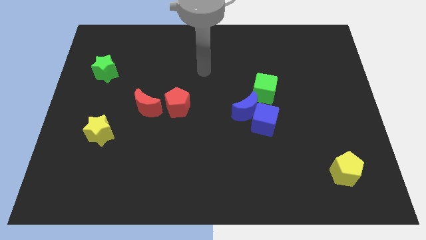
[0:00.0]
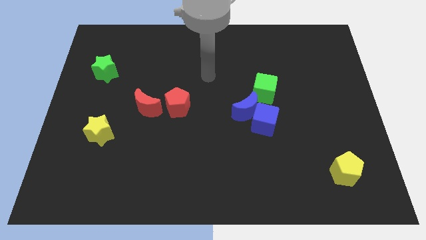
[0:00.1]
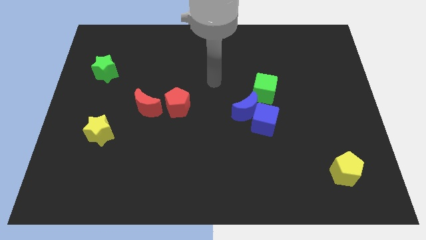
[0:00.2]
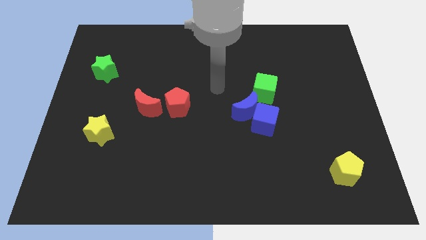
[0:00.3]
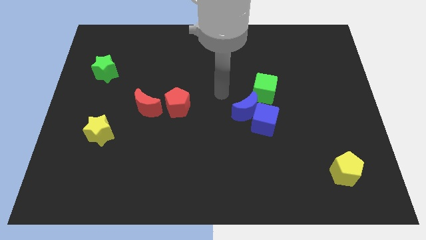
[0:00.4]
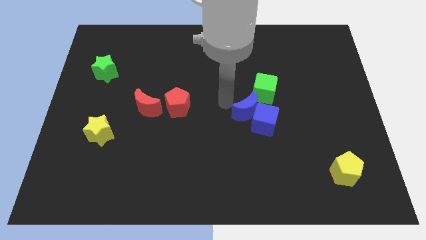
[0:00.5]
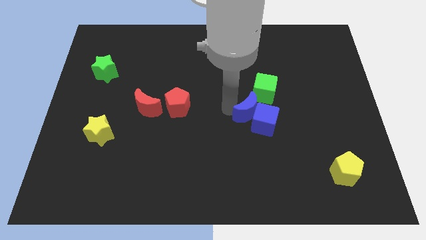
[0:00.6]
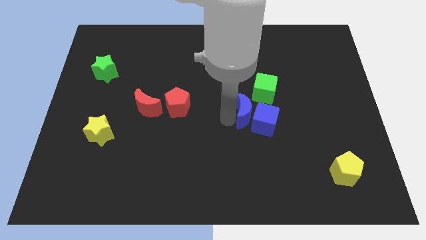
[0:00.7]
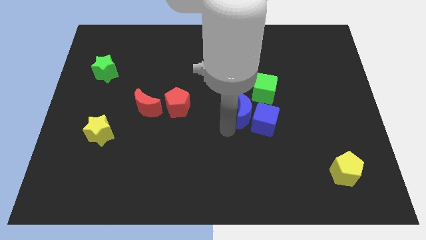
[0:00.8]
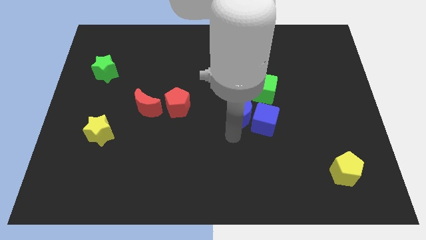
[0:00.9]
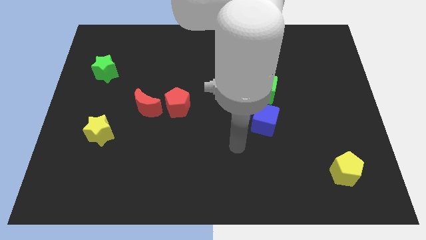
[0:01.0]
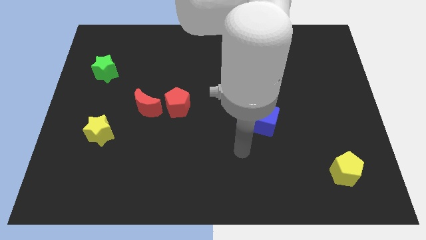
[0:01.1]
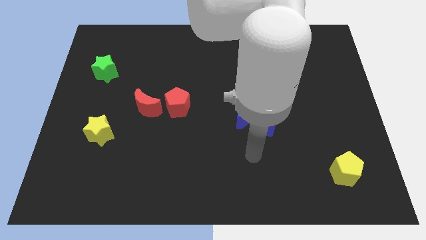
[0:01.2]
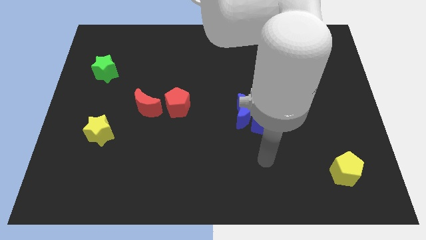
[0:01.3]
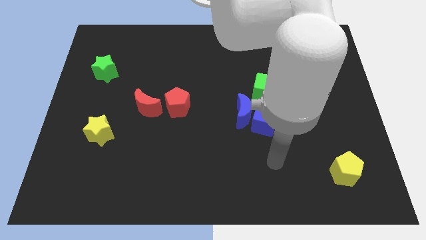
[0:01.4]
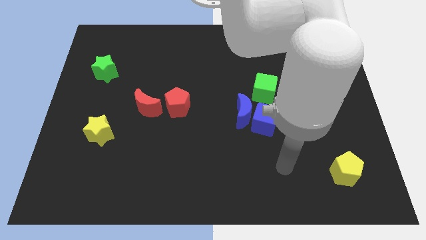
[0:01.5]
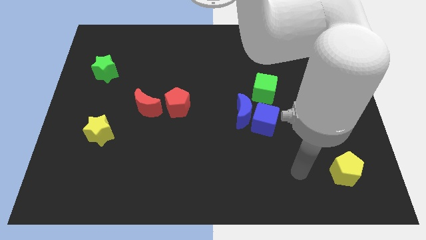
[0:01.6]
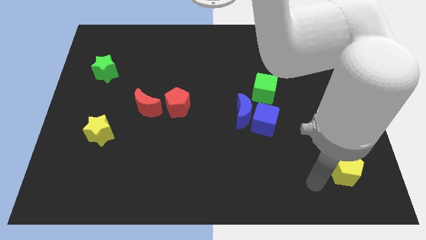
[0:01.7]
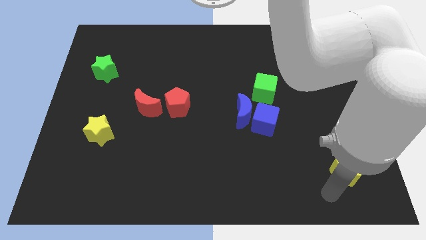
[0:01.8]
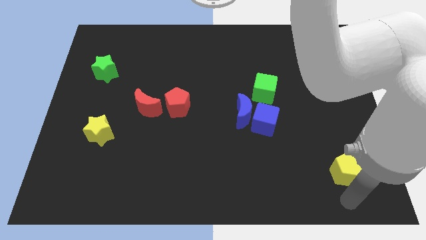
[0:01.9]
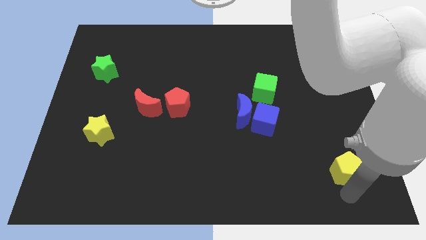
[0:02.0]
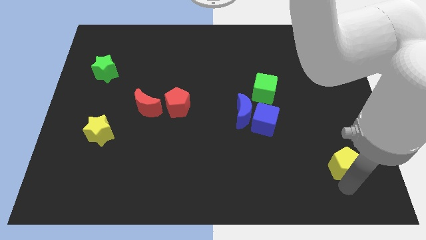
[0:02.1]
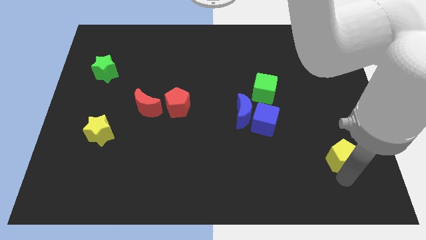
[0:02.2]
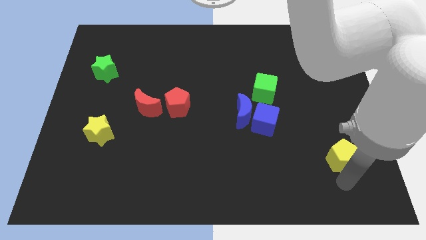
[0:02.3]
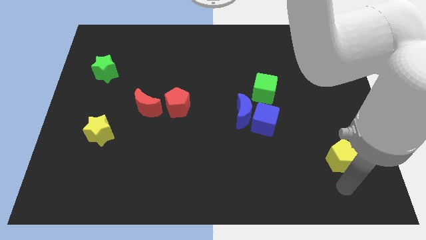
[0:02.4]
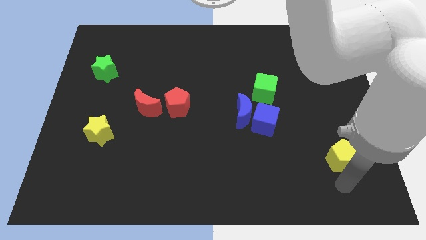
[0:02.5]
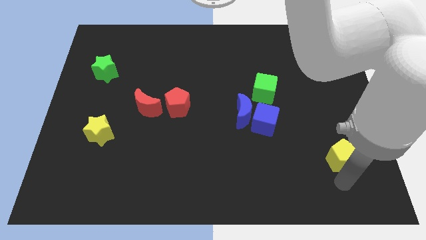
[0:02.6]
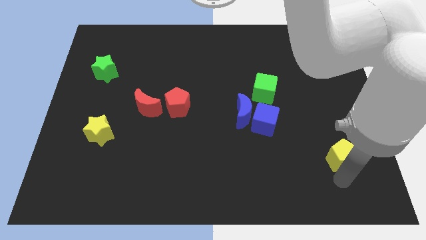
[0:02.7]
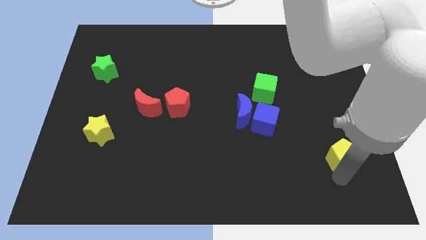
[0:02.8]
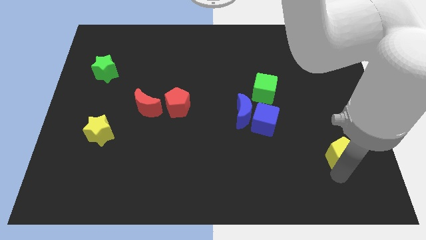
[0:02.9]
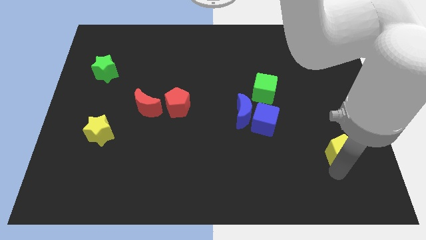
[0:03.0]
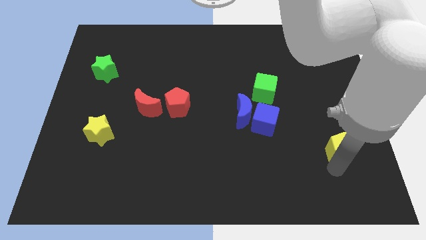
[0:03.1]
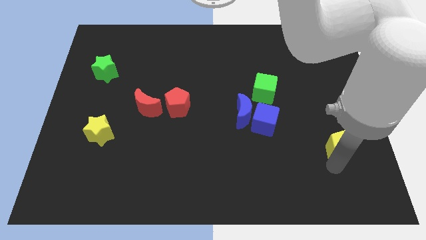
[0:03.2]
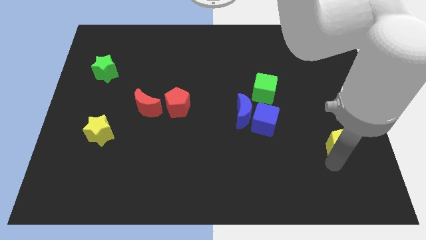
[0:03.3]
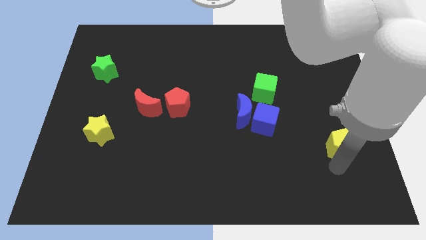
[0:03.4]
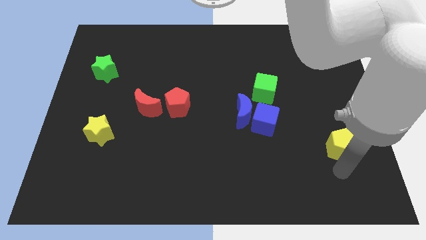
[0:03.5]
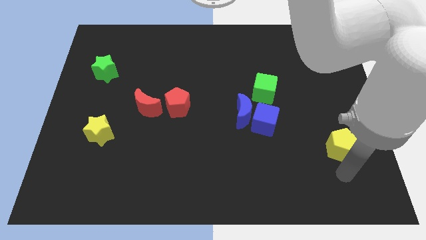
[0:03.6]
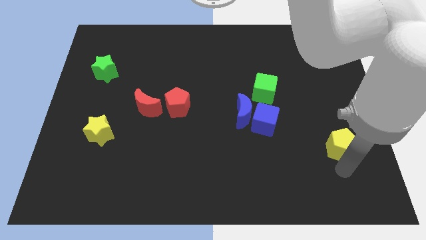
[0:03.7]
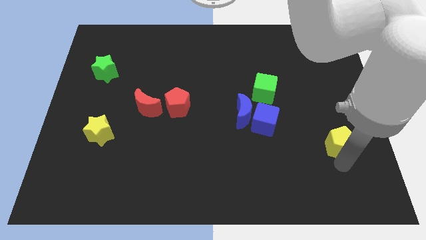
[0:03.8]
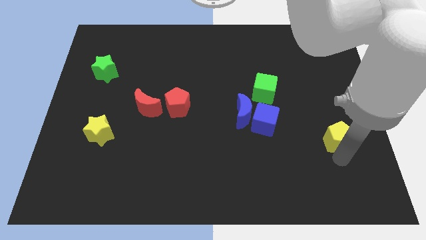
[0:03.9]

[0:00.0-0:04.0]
push the yellow pentagon somewhat up

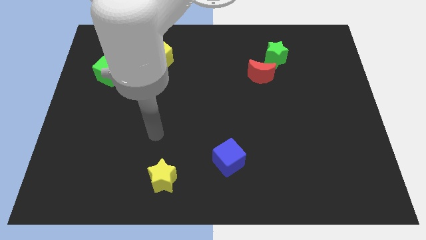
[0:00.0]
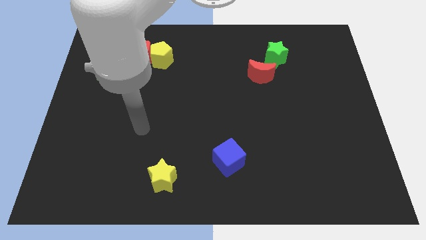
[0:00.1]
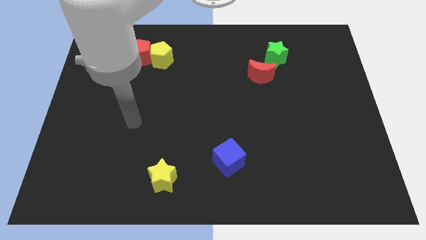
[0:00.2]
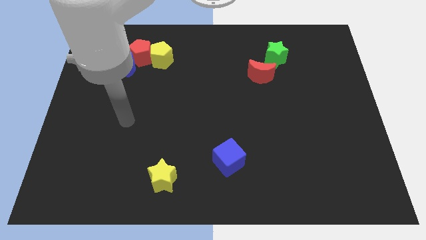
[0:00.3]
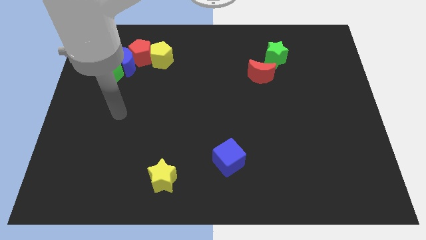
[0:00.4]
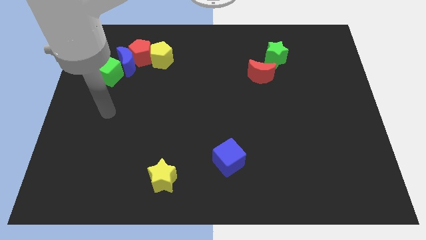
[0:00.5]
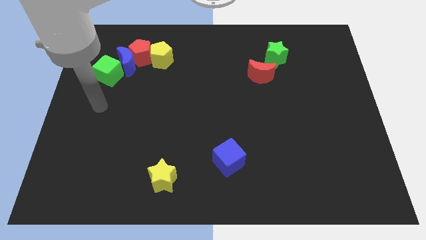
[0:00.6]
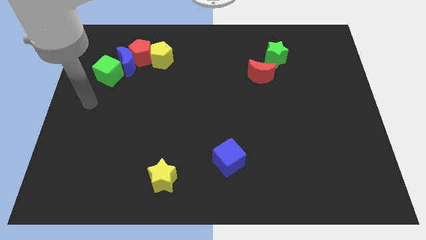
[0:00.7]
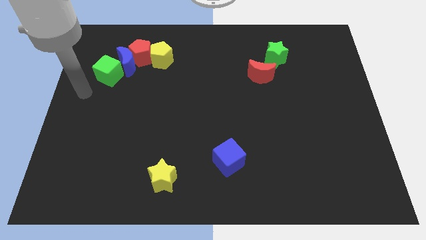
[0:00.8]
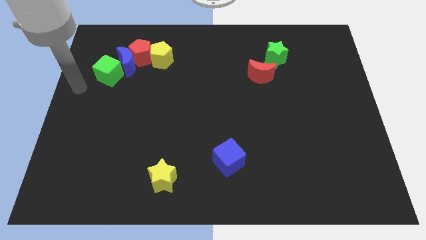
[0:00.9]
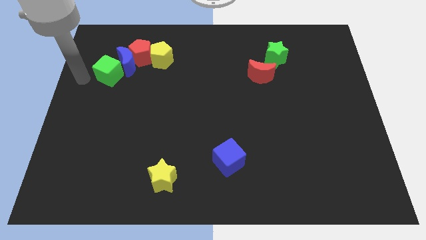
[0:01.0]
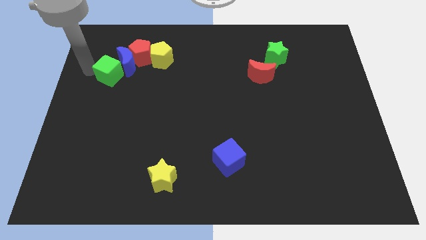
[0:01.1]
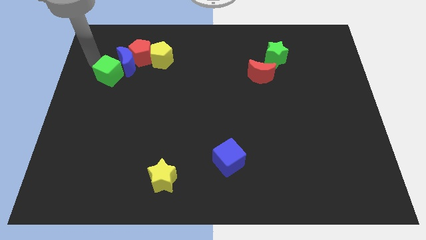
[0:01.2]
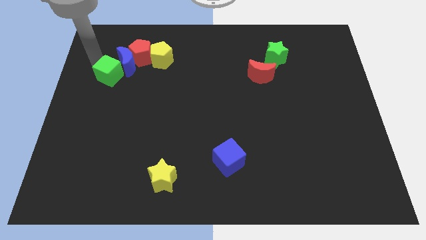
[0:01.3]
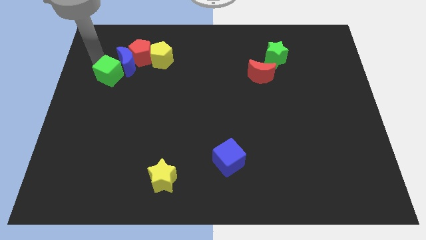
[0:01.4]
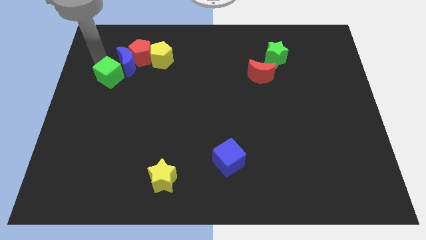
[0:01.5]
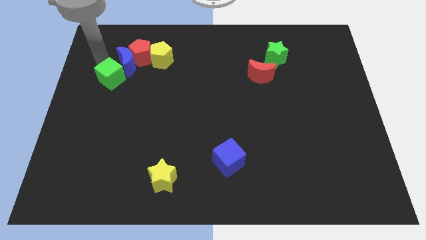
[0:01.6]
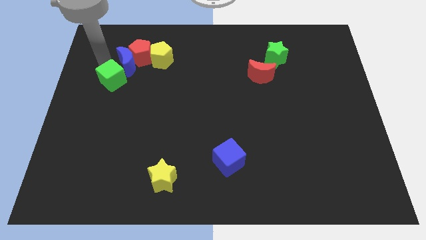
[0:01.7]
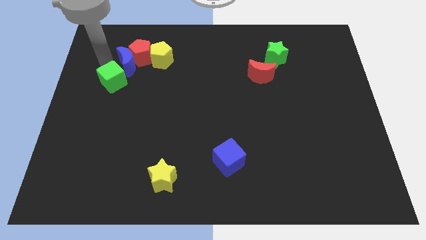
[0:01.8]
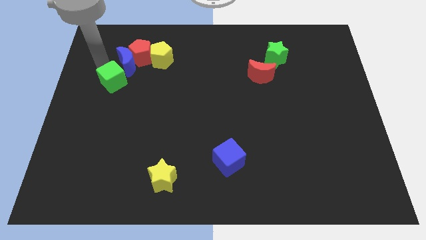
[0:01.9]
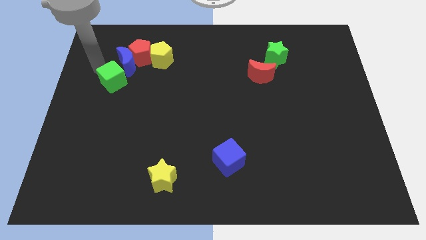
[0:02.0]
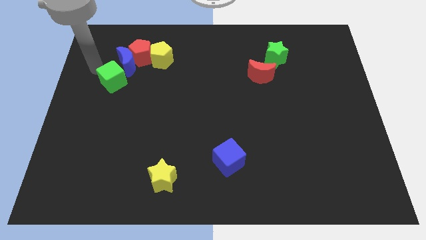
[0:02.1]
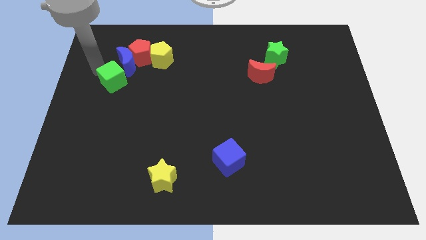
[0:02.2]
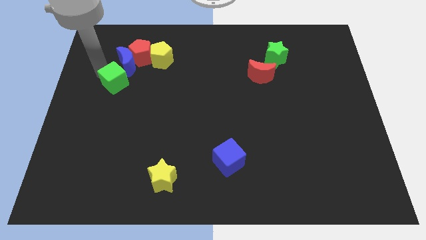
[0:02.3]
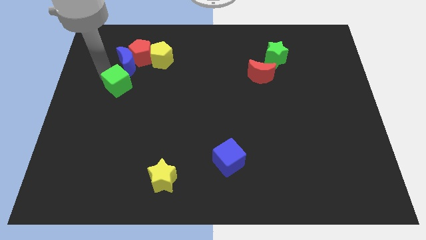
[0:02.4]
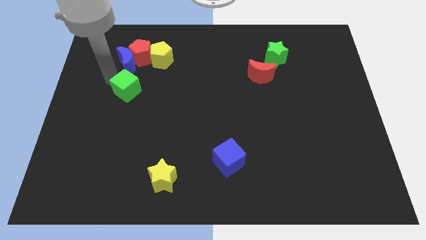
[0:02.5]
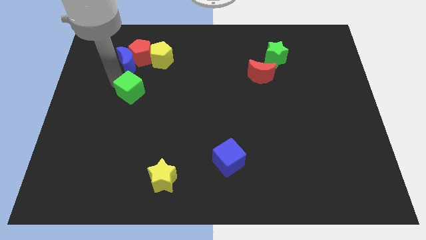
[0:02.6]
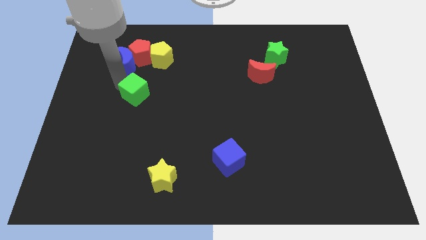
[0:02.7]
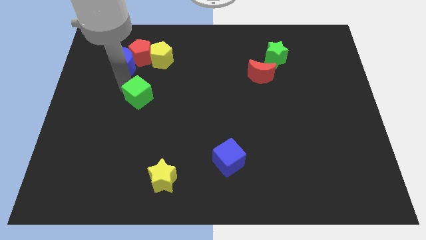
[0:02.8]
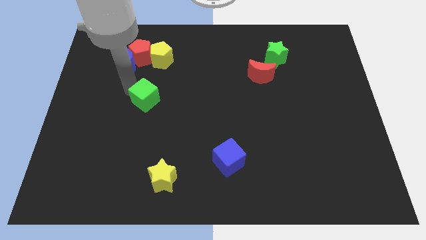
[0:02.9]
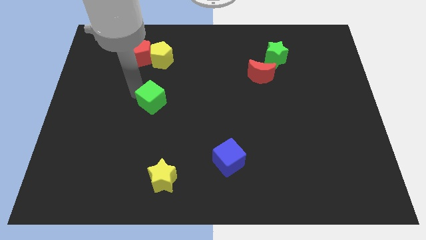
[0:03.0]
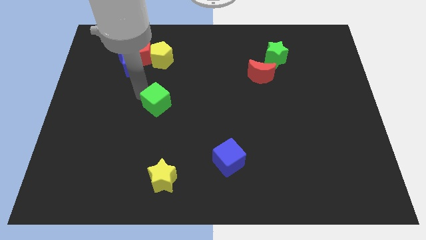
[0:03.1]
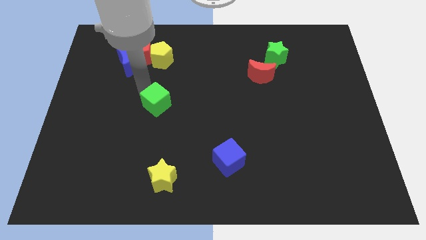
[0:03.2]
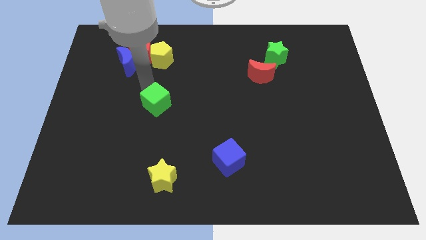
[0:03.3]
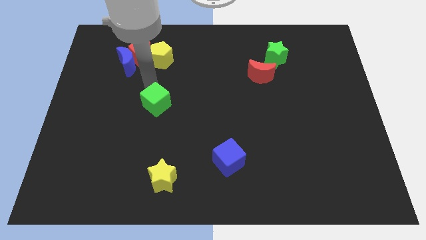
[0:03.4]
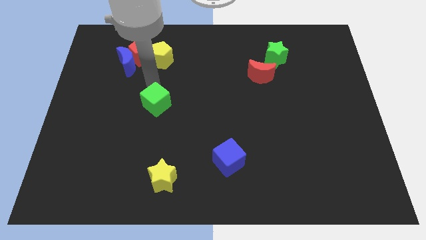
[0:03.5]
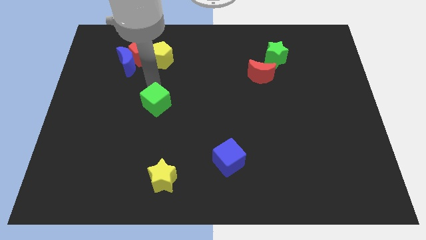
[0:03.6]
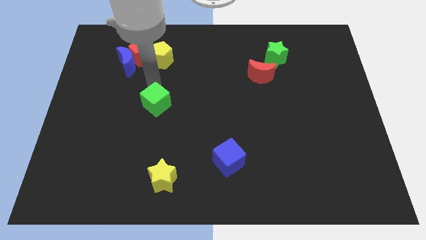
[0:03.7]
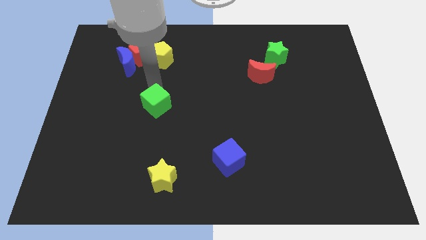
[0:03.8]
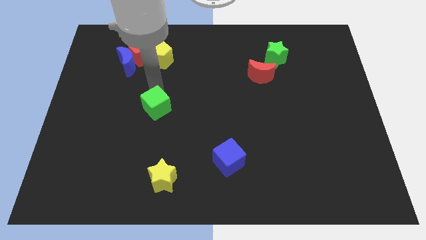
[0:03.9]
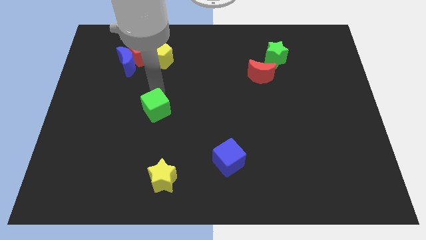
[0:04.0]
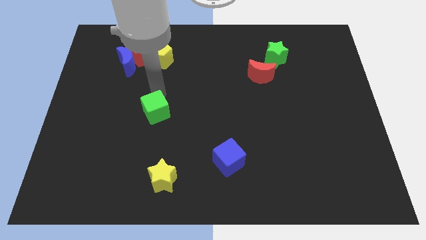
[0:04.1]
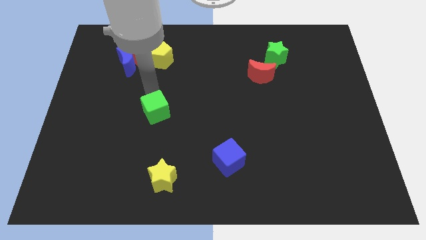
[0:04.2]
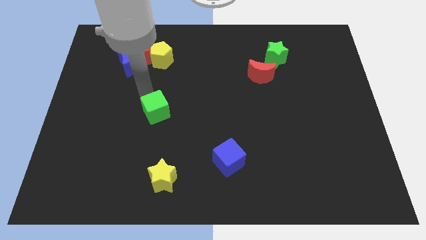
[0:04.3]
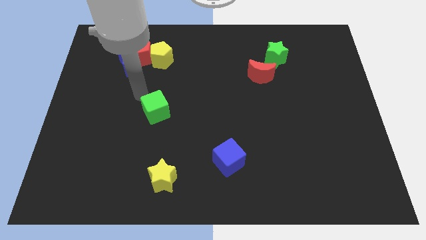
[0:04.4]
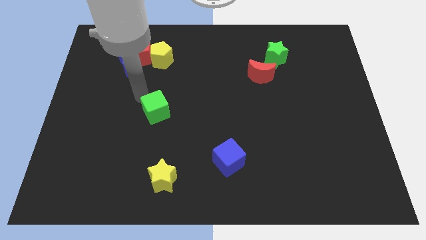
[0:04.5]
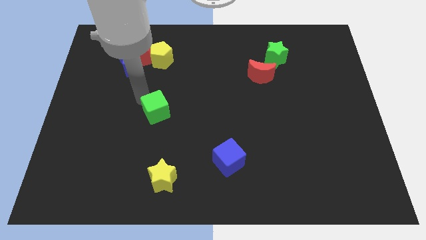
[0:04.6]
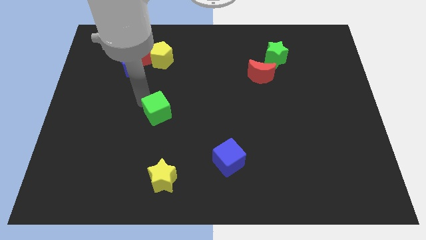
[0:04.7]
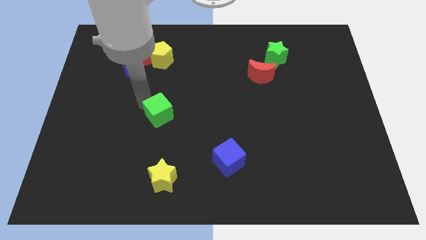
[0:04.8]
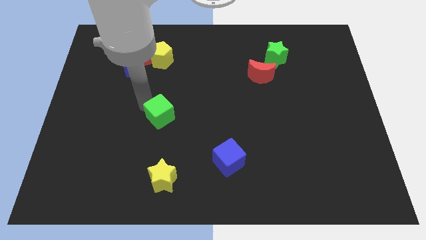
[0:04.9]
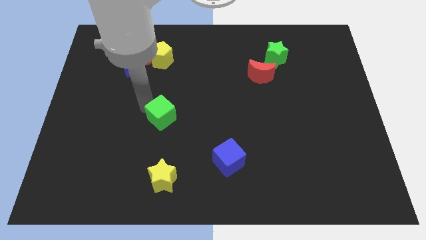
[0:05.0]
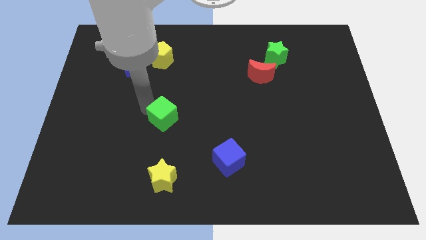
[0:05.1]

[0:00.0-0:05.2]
push the green cube downwards and then right
